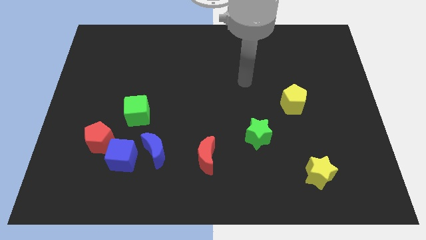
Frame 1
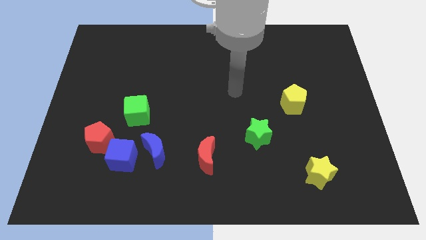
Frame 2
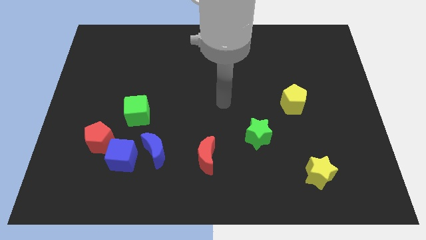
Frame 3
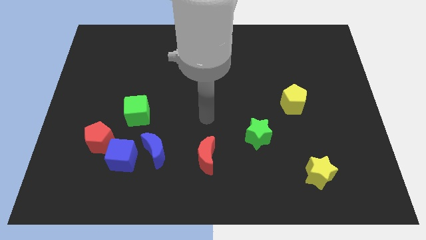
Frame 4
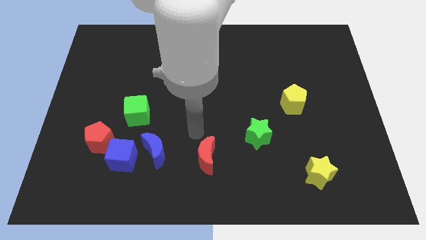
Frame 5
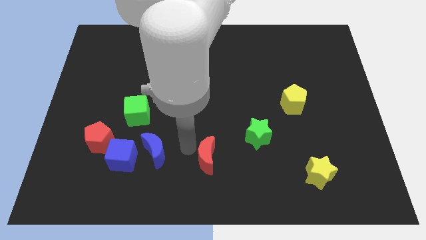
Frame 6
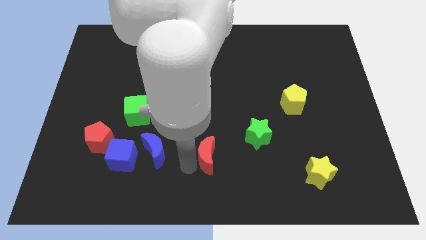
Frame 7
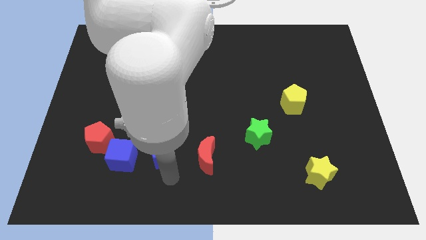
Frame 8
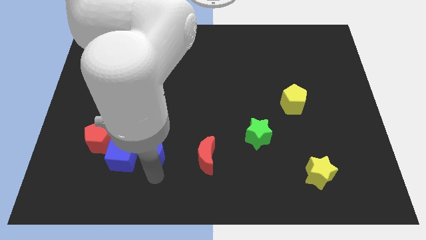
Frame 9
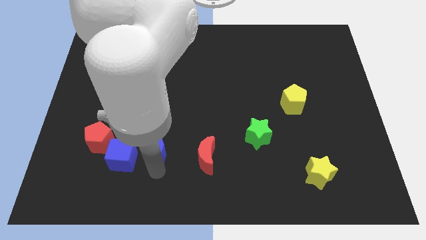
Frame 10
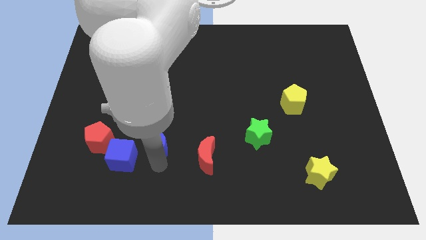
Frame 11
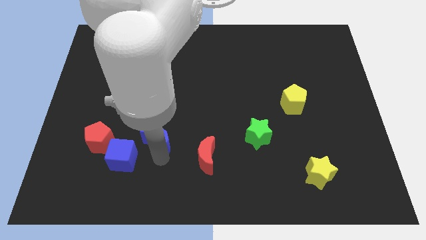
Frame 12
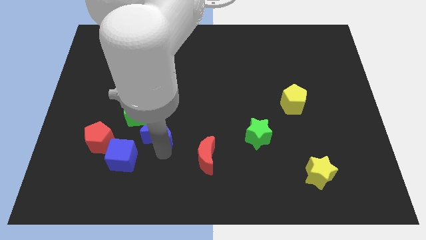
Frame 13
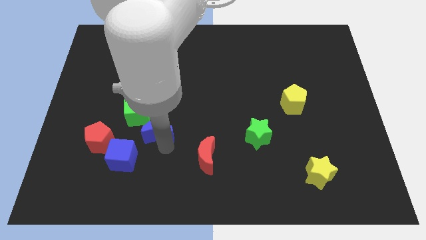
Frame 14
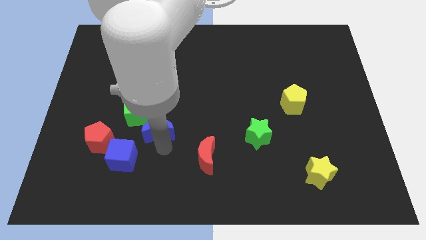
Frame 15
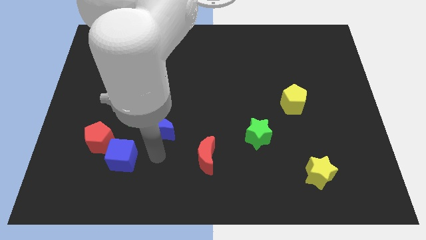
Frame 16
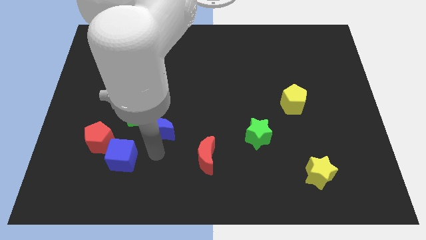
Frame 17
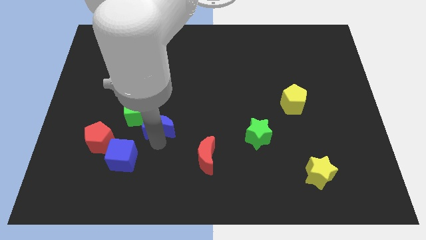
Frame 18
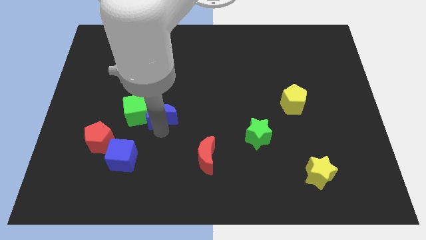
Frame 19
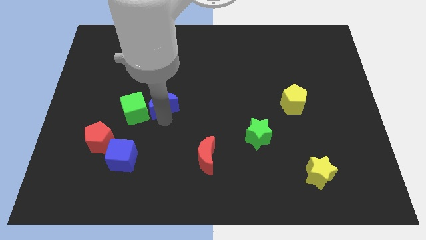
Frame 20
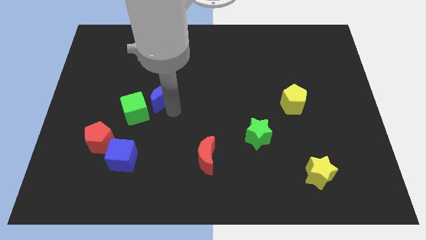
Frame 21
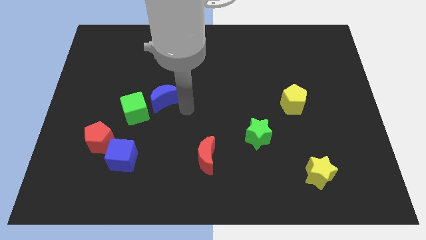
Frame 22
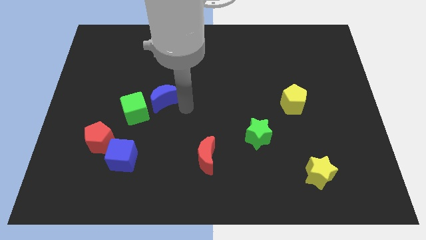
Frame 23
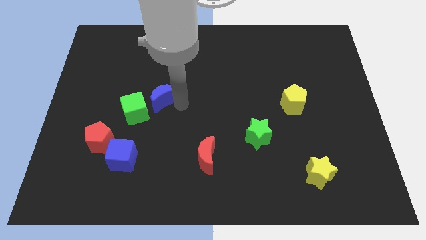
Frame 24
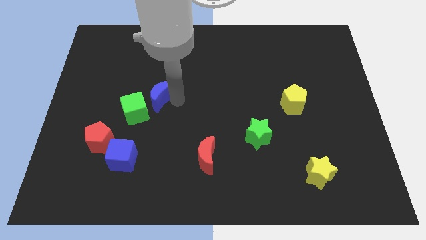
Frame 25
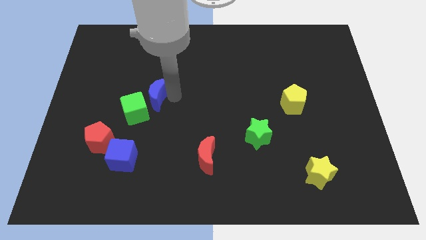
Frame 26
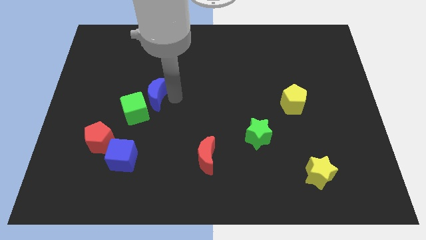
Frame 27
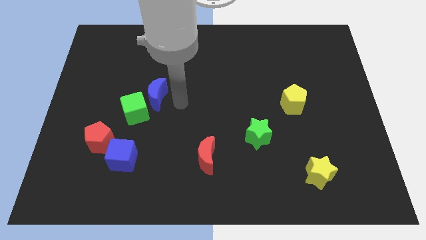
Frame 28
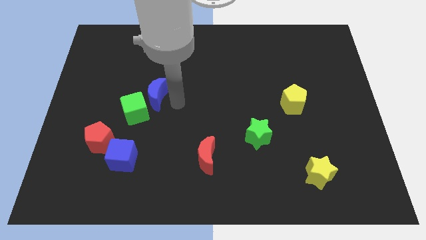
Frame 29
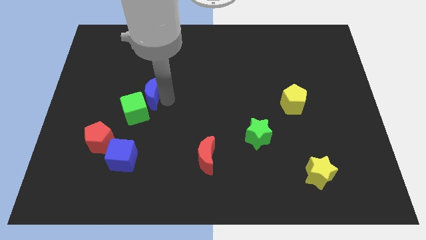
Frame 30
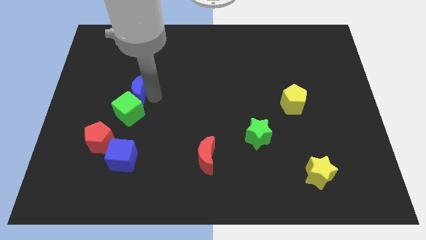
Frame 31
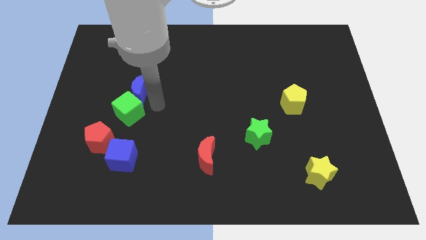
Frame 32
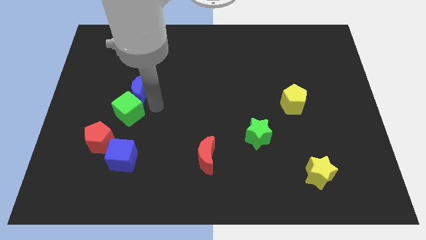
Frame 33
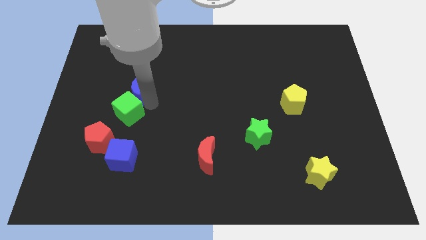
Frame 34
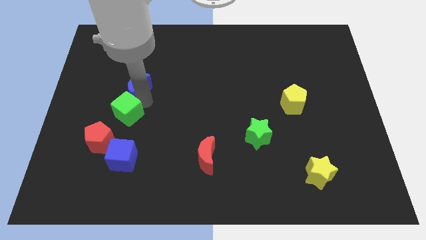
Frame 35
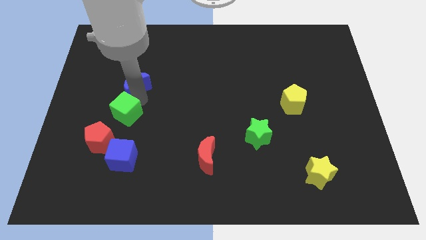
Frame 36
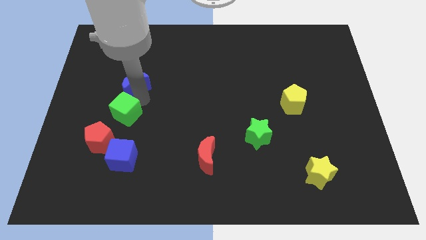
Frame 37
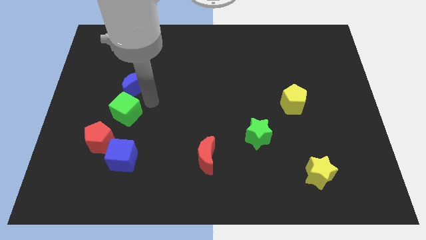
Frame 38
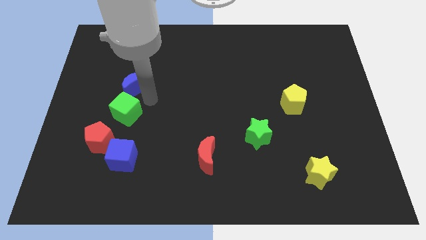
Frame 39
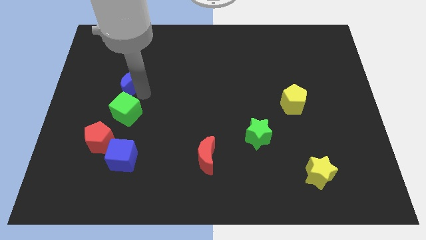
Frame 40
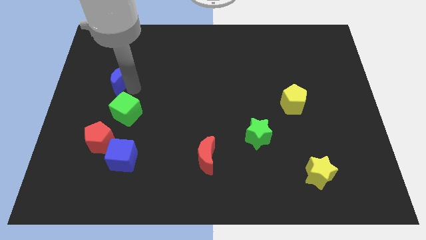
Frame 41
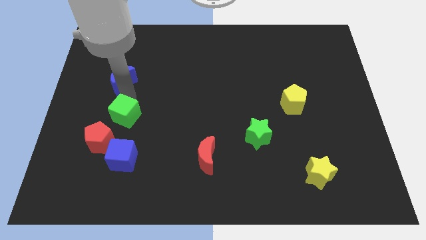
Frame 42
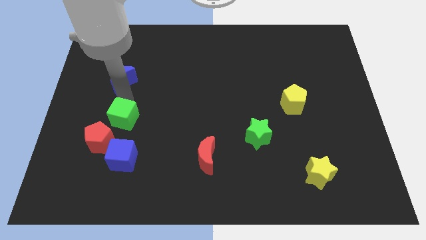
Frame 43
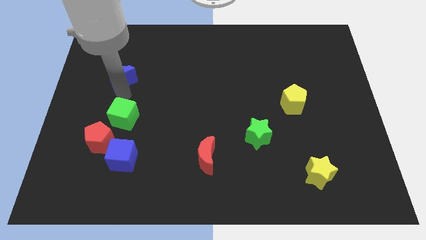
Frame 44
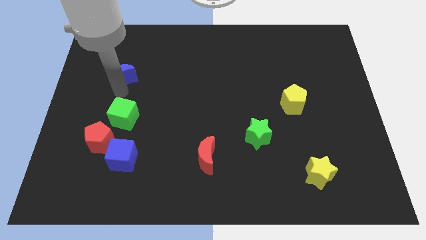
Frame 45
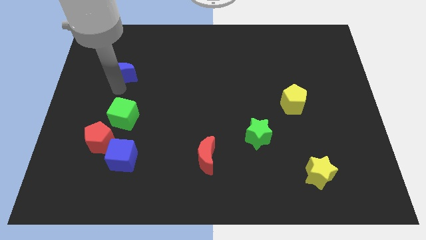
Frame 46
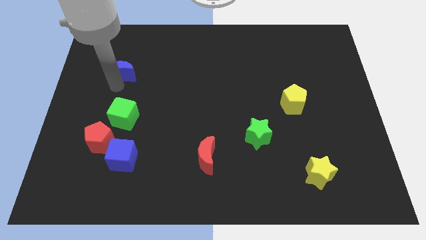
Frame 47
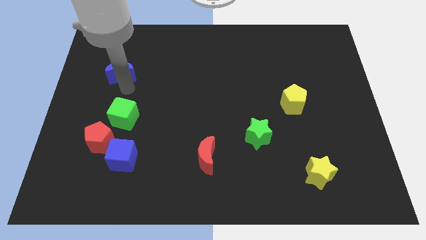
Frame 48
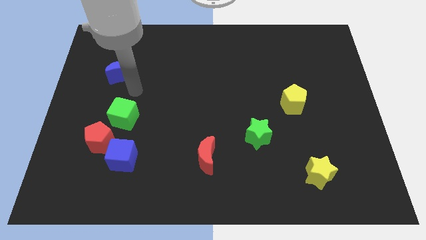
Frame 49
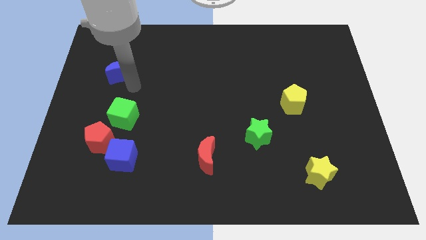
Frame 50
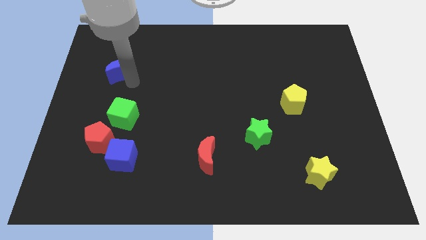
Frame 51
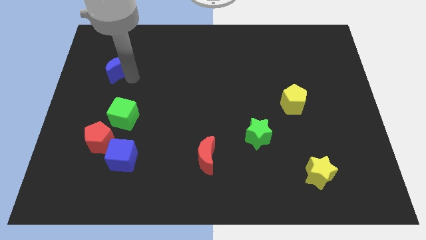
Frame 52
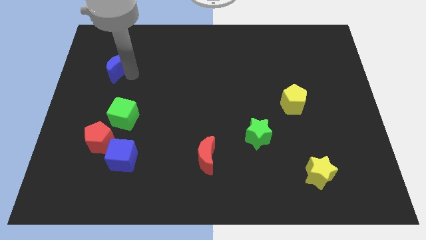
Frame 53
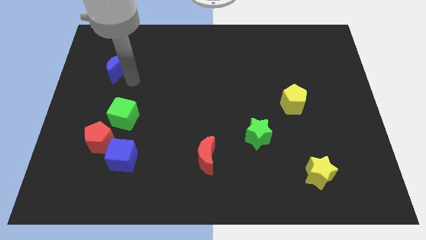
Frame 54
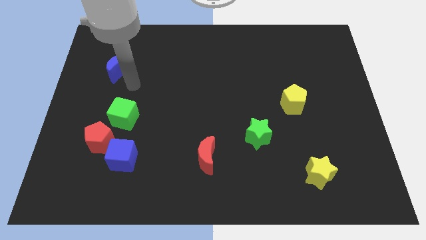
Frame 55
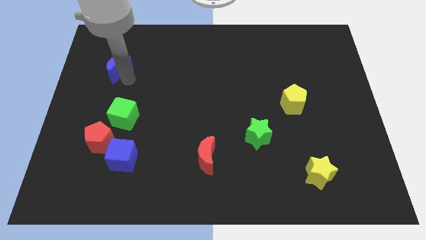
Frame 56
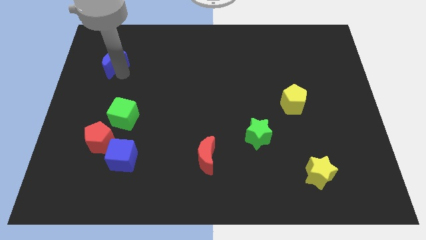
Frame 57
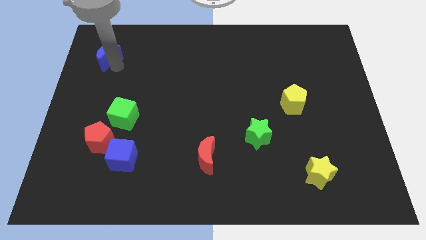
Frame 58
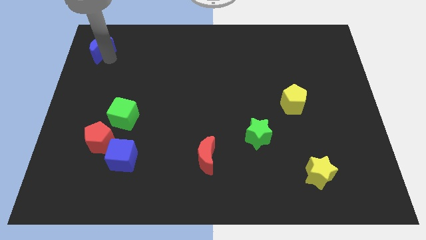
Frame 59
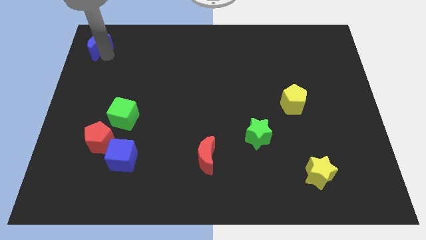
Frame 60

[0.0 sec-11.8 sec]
put the blue moon to the top left
